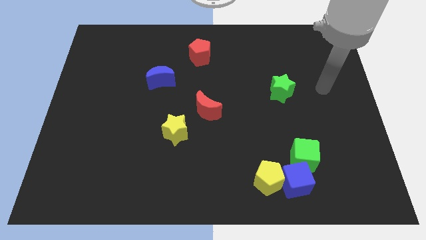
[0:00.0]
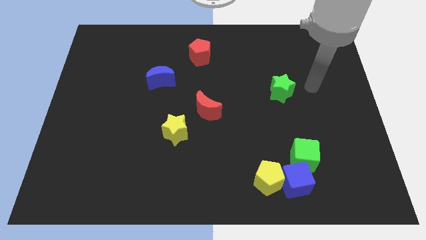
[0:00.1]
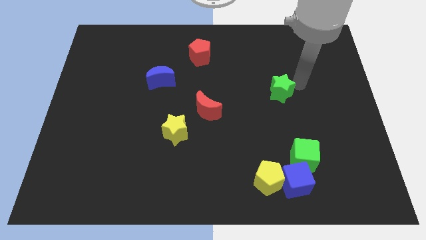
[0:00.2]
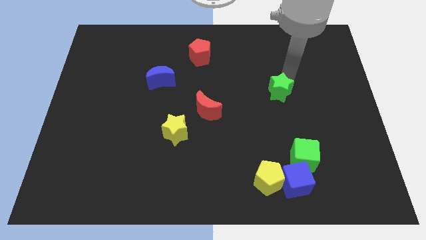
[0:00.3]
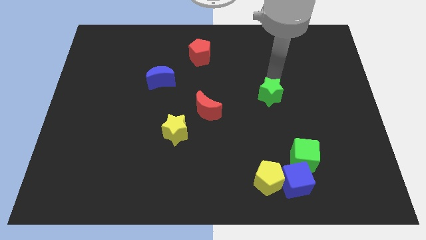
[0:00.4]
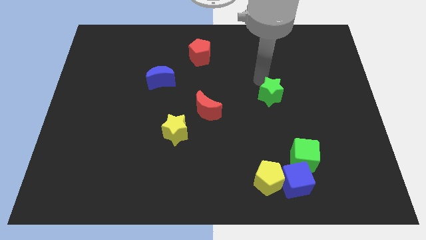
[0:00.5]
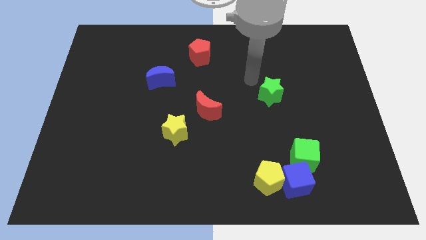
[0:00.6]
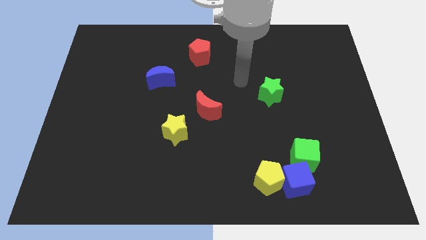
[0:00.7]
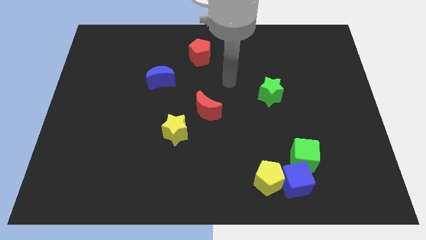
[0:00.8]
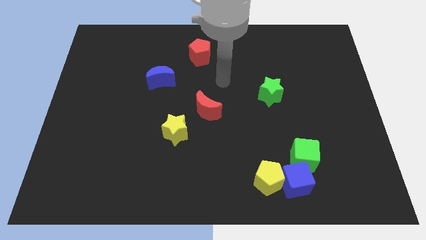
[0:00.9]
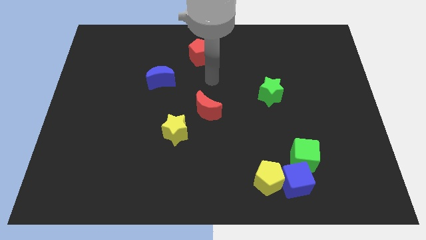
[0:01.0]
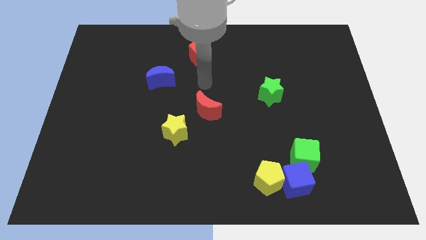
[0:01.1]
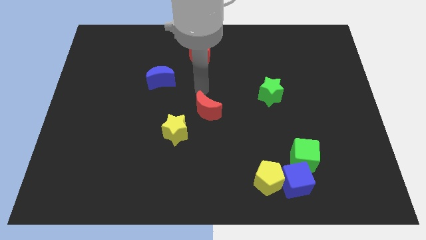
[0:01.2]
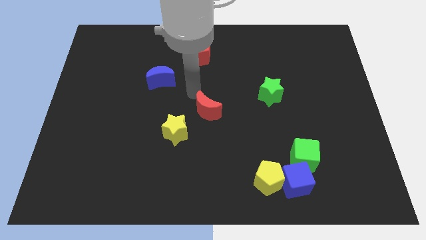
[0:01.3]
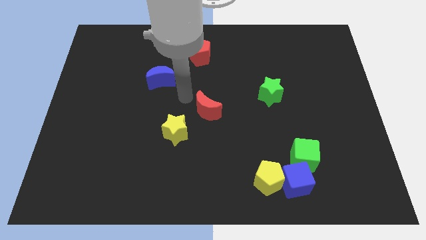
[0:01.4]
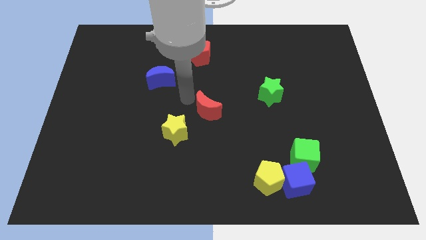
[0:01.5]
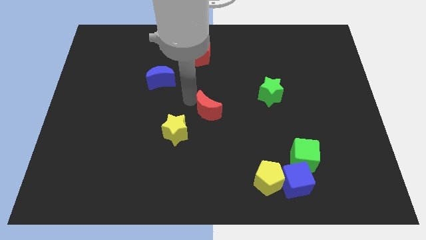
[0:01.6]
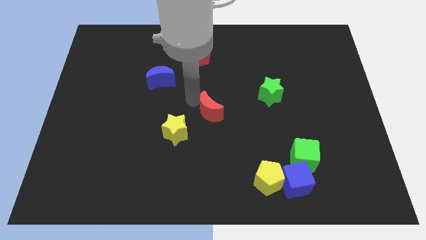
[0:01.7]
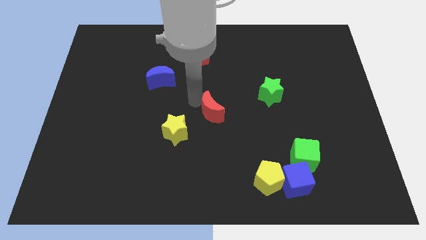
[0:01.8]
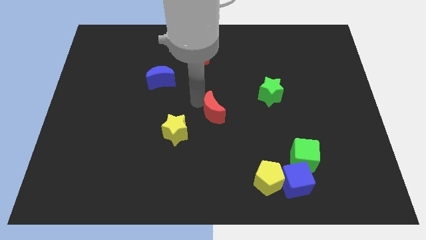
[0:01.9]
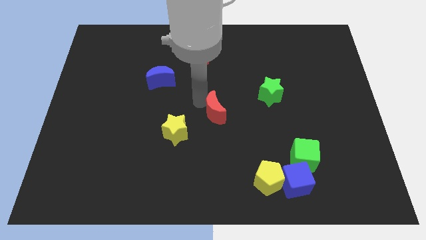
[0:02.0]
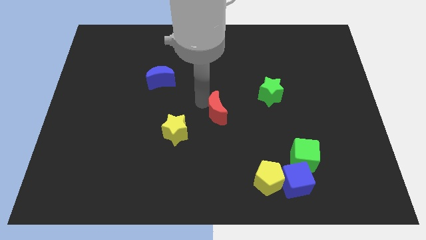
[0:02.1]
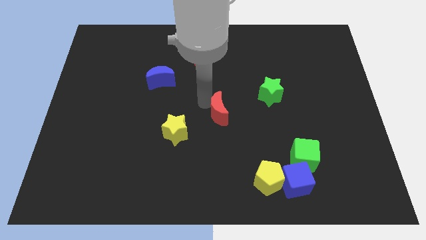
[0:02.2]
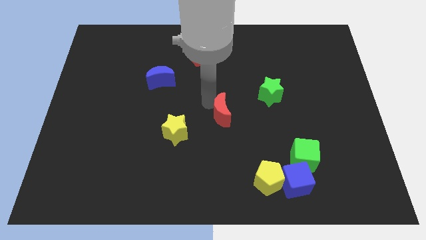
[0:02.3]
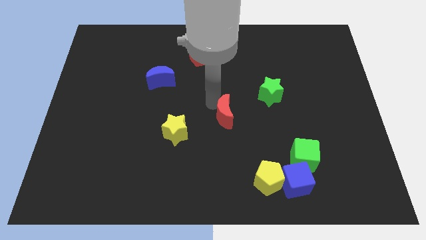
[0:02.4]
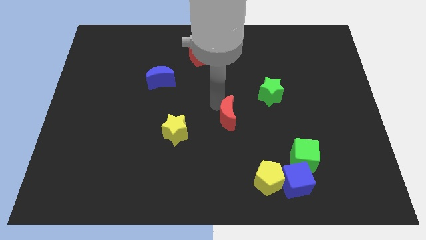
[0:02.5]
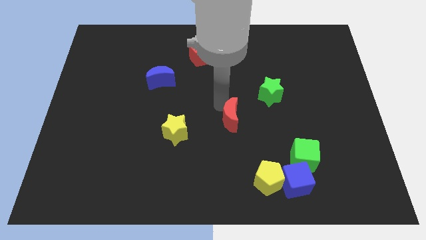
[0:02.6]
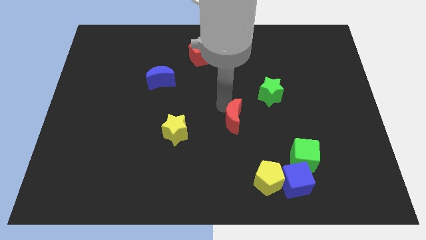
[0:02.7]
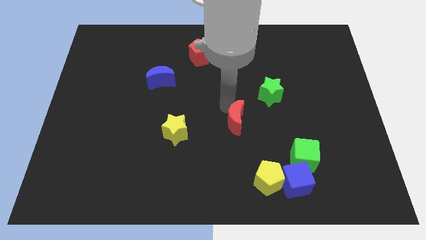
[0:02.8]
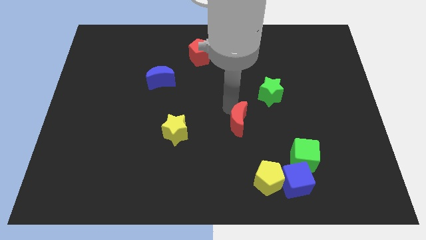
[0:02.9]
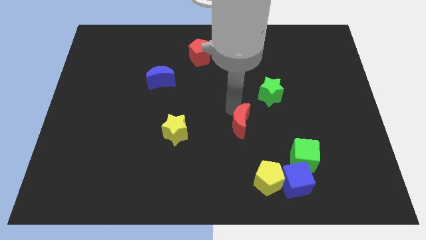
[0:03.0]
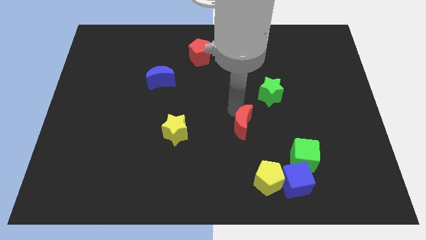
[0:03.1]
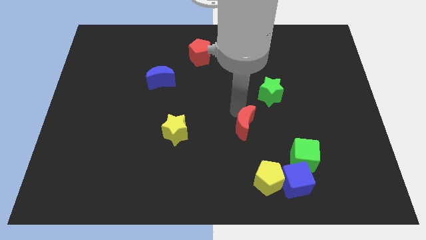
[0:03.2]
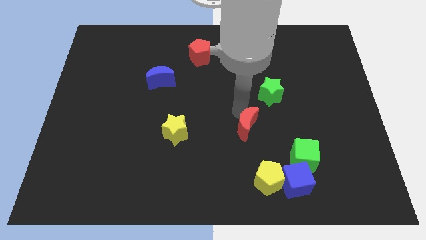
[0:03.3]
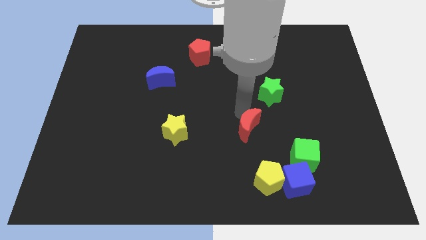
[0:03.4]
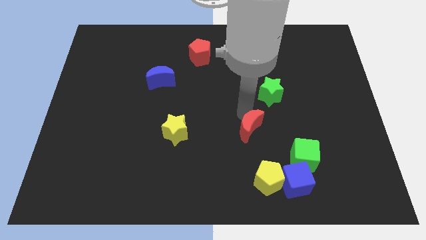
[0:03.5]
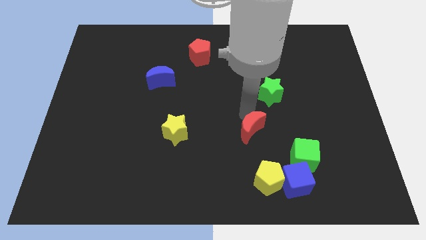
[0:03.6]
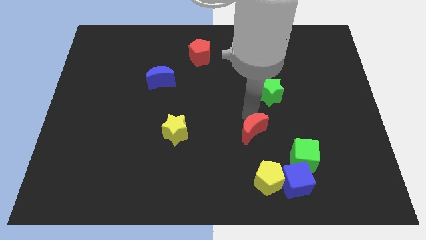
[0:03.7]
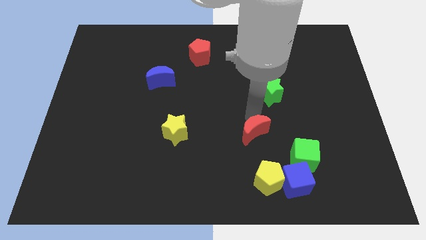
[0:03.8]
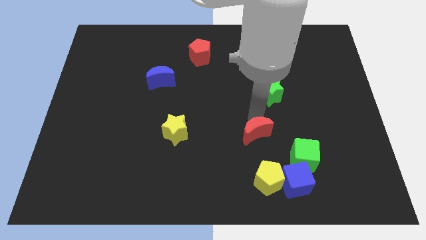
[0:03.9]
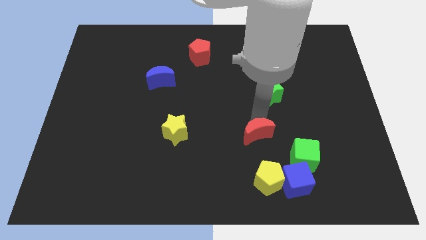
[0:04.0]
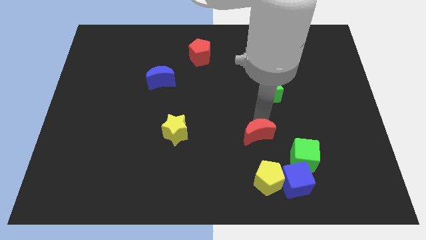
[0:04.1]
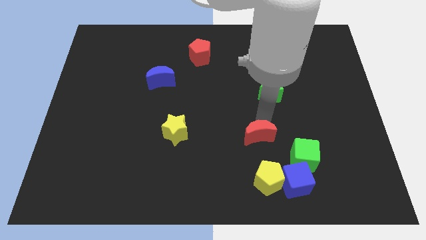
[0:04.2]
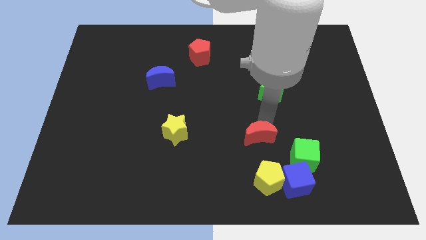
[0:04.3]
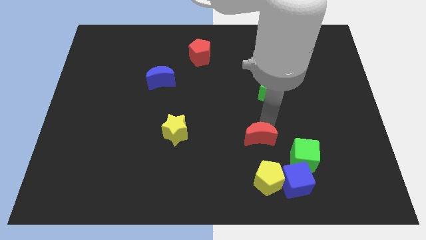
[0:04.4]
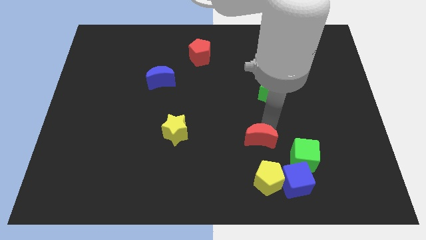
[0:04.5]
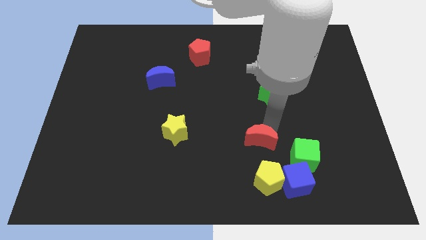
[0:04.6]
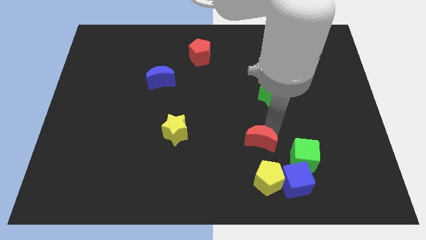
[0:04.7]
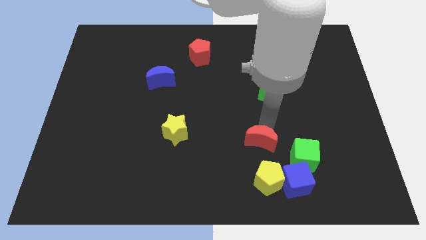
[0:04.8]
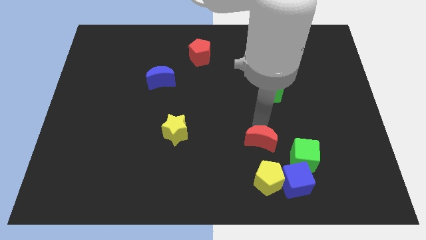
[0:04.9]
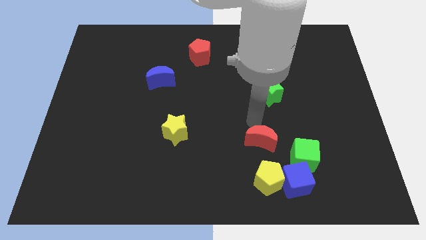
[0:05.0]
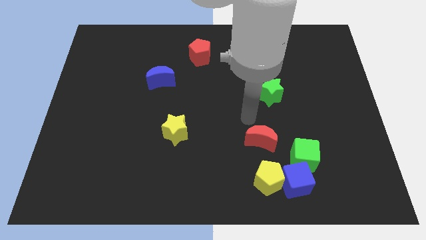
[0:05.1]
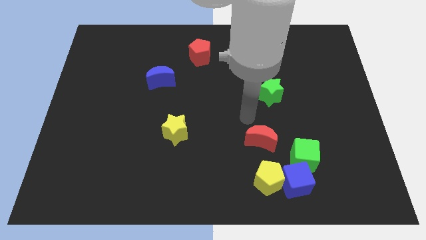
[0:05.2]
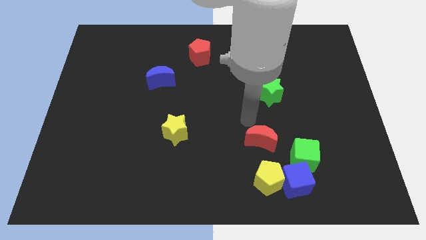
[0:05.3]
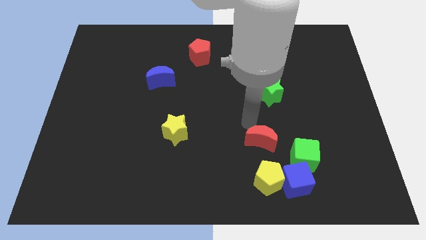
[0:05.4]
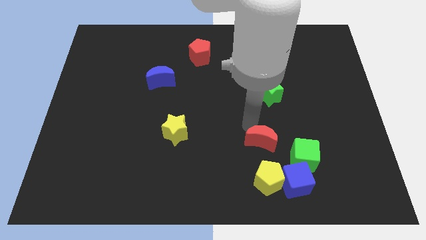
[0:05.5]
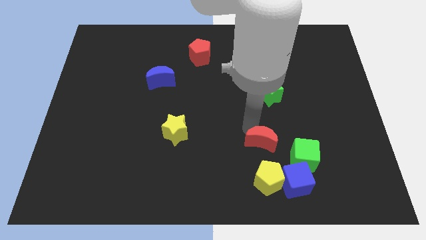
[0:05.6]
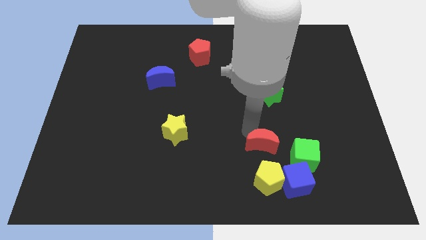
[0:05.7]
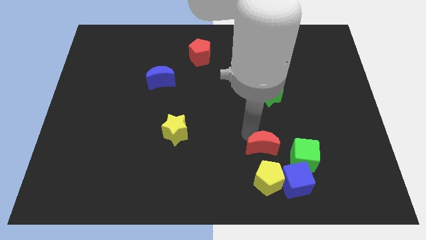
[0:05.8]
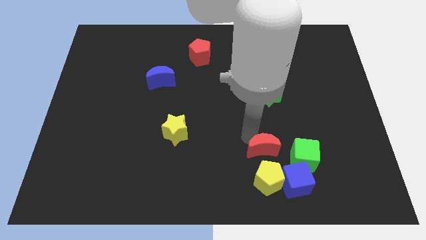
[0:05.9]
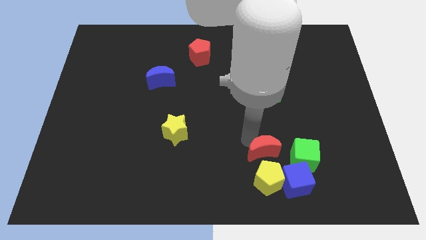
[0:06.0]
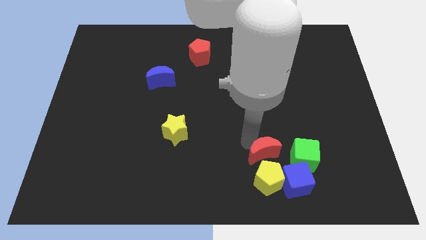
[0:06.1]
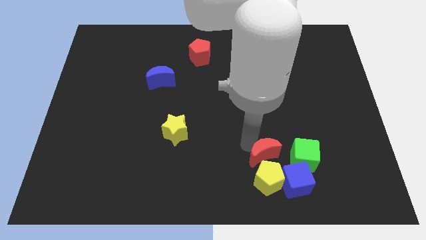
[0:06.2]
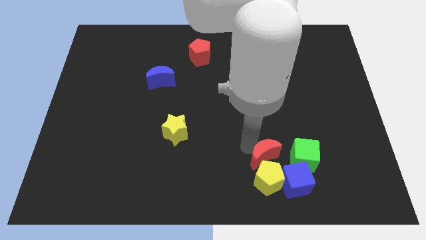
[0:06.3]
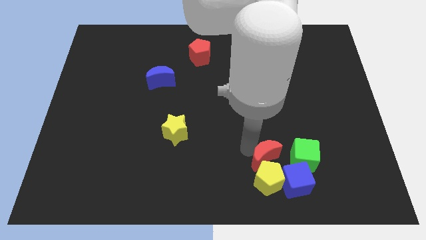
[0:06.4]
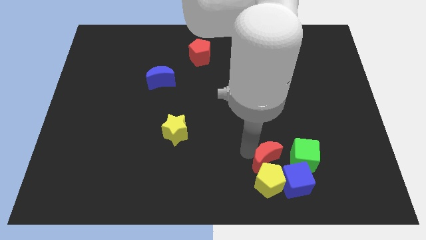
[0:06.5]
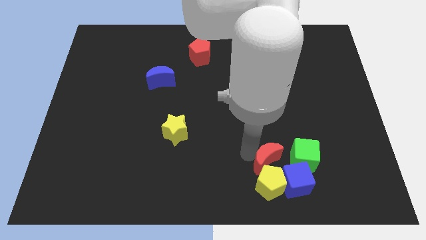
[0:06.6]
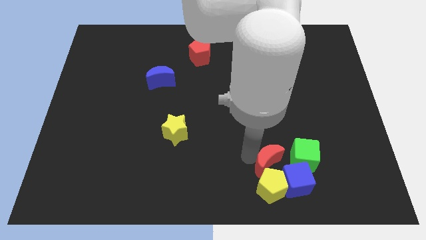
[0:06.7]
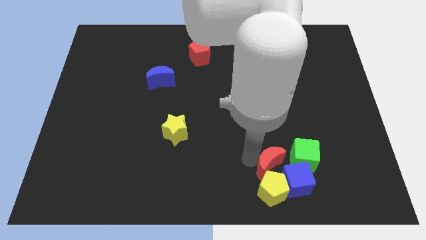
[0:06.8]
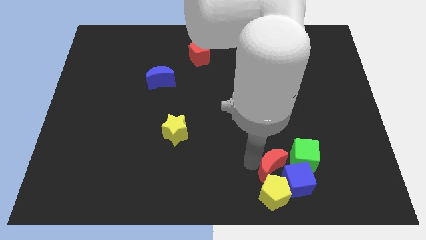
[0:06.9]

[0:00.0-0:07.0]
put the red moon to the blue cube
